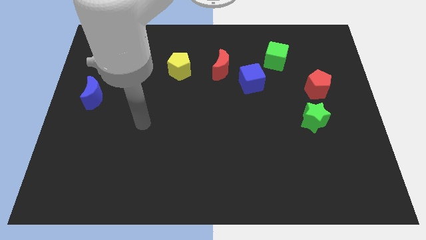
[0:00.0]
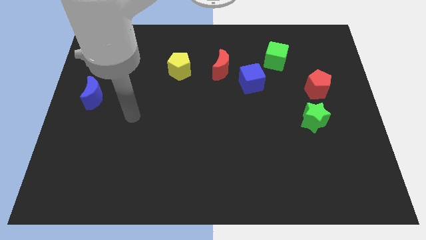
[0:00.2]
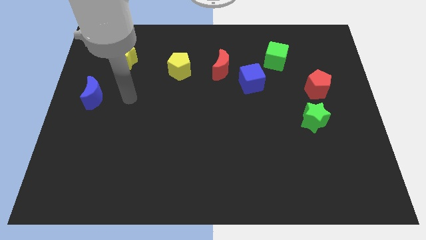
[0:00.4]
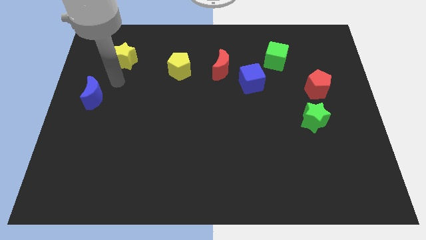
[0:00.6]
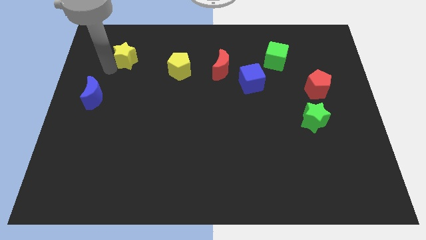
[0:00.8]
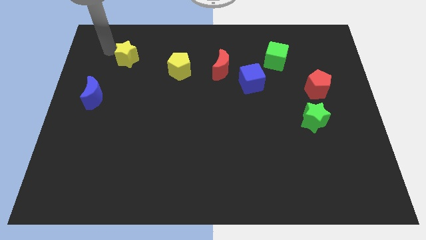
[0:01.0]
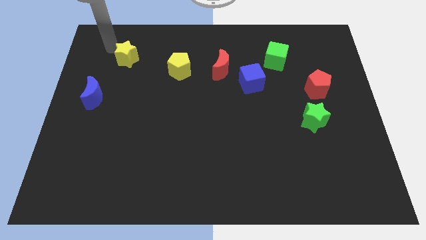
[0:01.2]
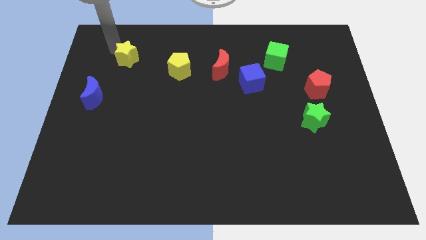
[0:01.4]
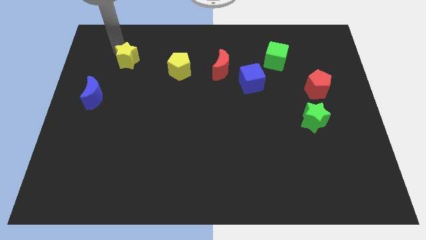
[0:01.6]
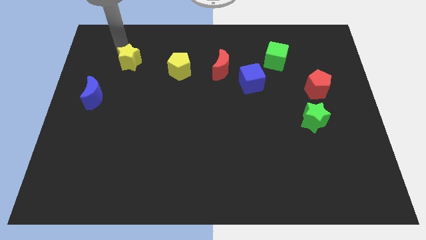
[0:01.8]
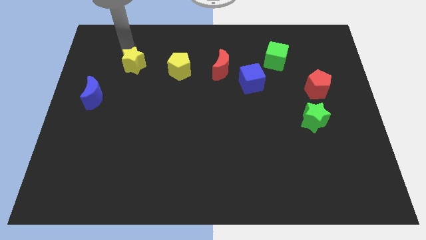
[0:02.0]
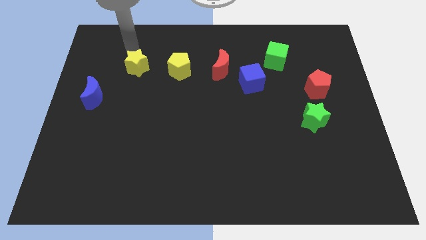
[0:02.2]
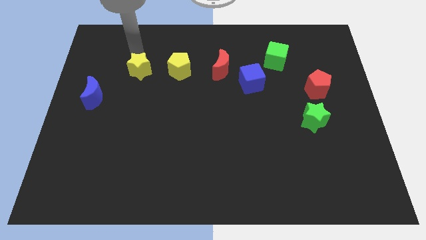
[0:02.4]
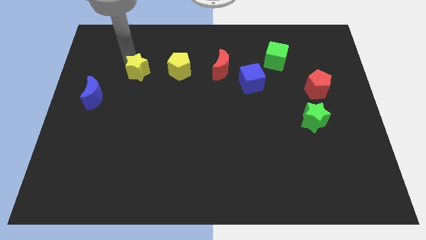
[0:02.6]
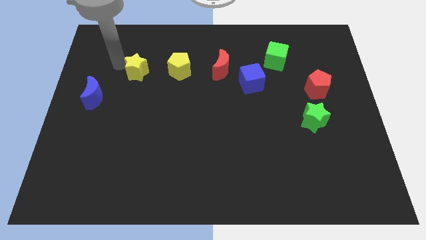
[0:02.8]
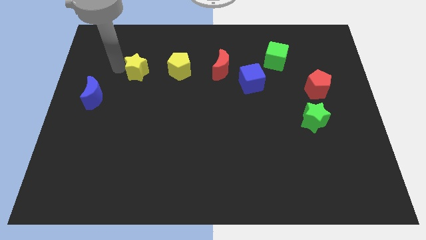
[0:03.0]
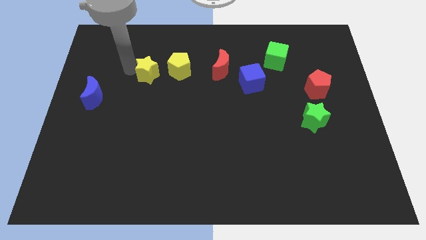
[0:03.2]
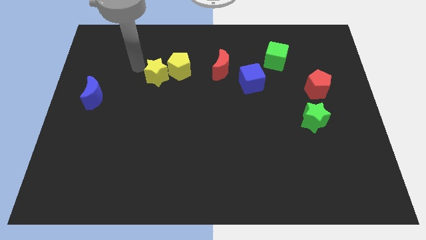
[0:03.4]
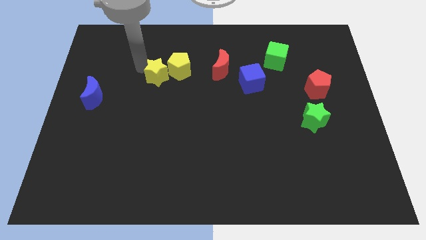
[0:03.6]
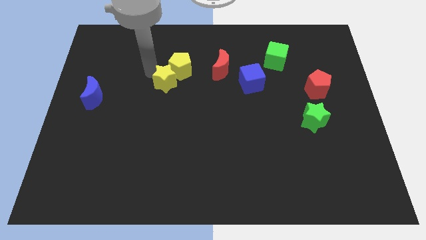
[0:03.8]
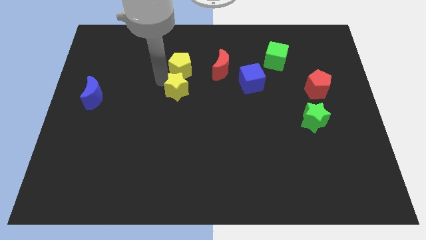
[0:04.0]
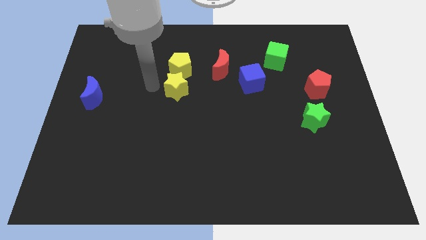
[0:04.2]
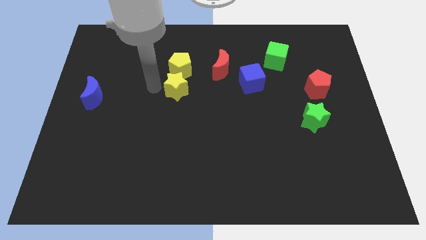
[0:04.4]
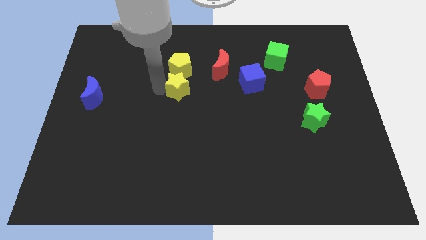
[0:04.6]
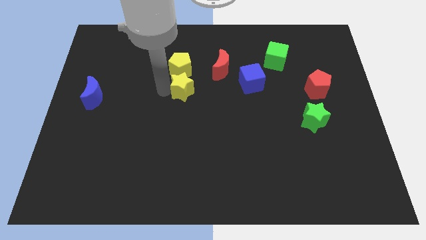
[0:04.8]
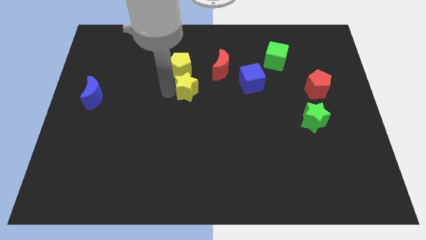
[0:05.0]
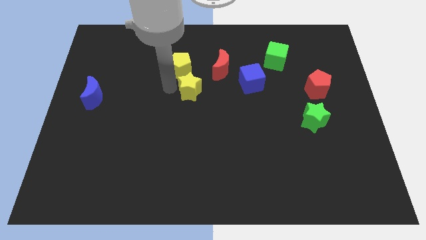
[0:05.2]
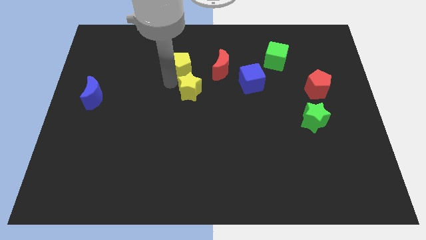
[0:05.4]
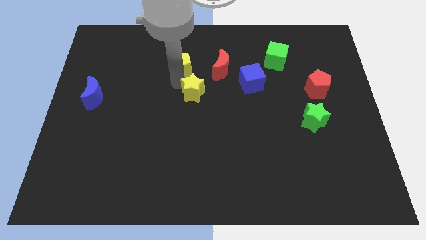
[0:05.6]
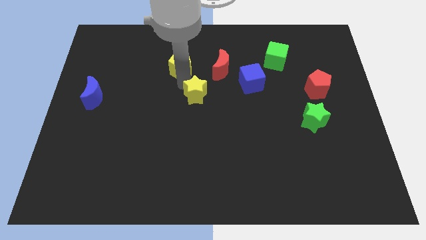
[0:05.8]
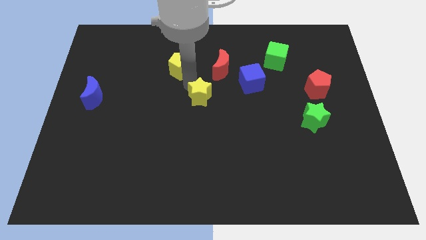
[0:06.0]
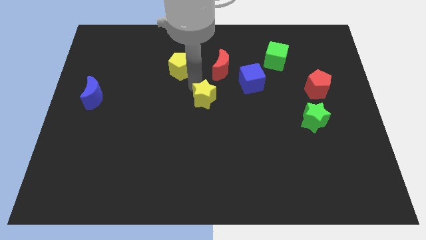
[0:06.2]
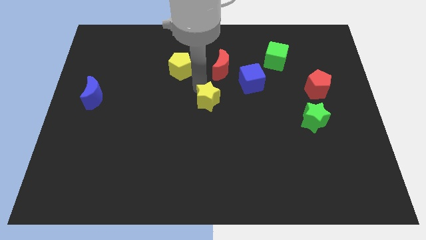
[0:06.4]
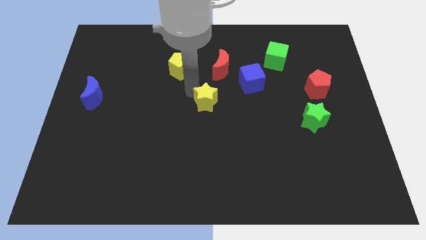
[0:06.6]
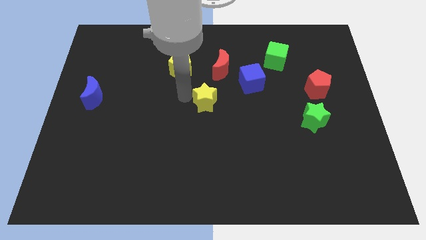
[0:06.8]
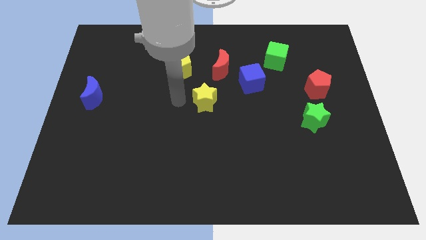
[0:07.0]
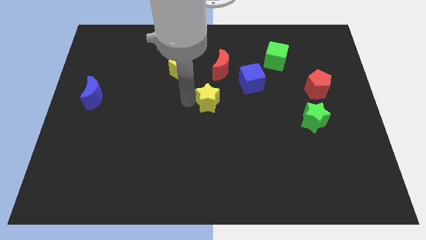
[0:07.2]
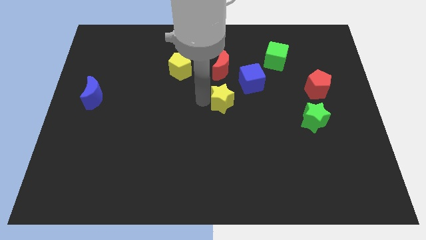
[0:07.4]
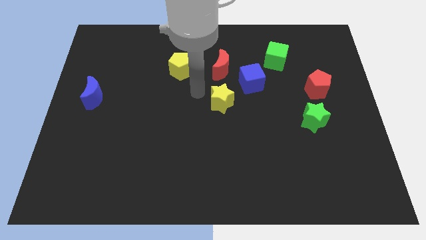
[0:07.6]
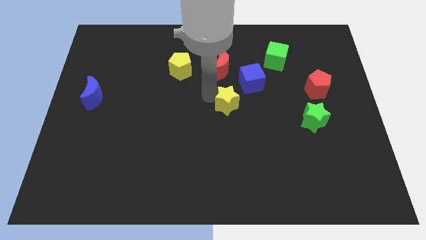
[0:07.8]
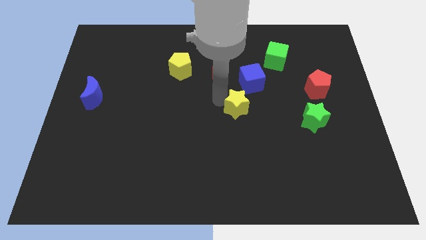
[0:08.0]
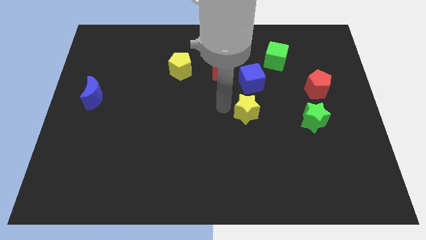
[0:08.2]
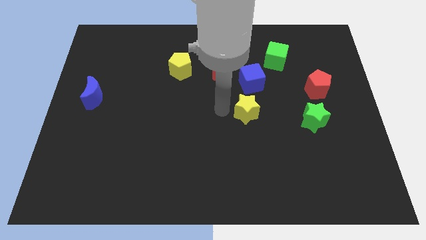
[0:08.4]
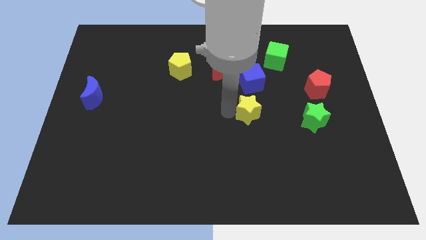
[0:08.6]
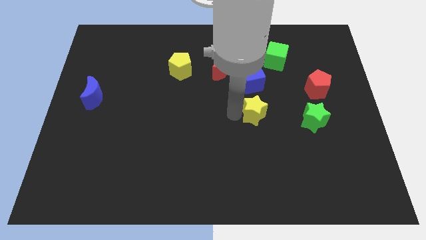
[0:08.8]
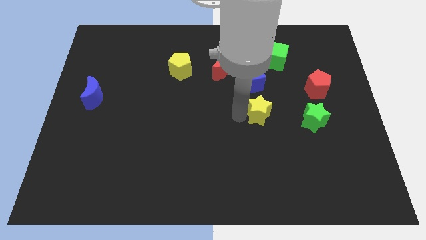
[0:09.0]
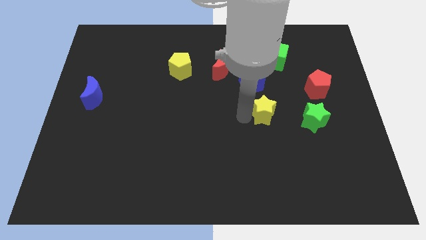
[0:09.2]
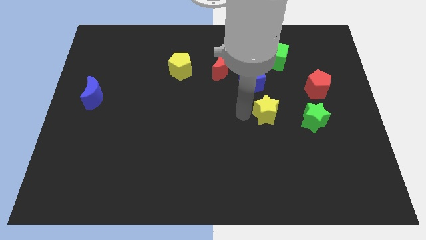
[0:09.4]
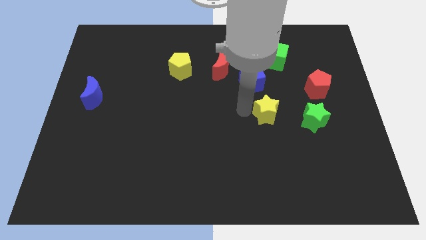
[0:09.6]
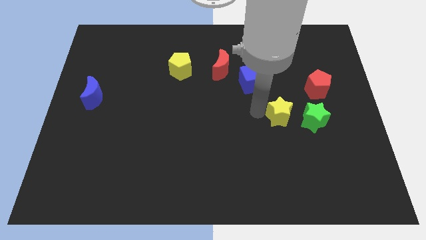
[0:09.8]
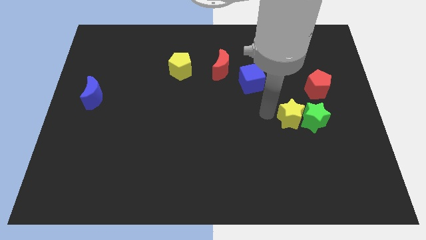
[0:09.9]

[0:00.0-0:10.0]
put the yellow star towards the green star

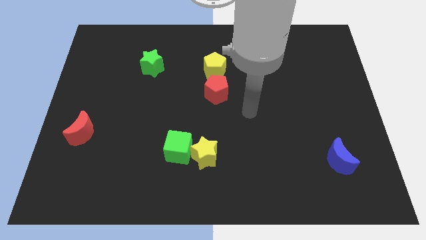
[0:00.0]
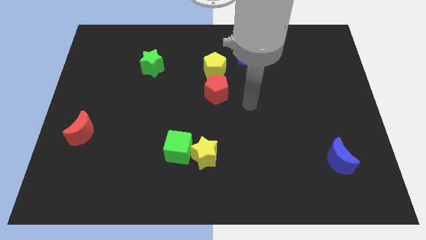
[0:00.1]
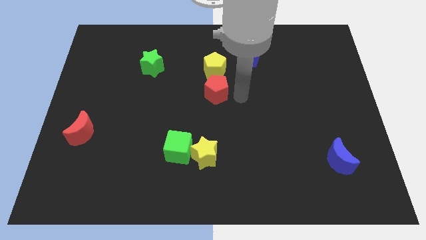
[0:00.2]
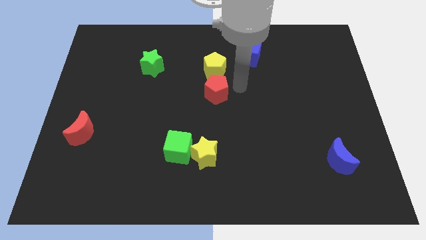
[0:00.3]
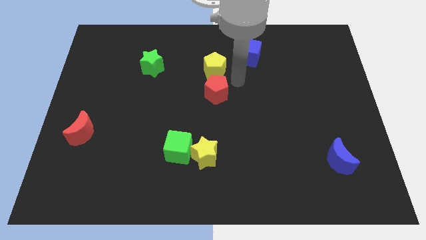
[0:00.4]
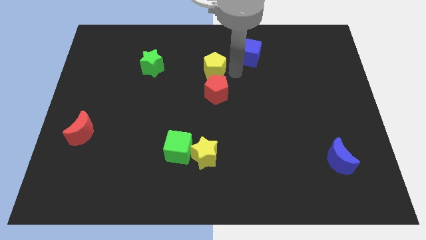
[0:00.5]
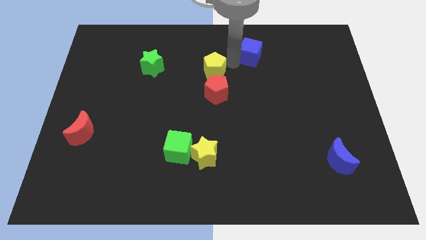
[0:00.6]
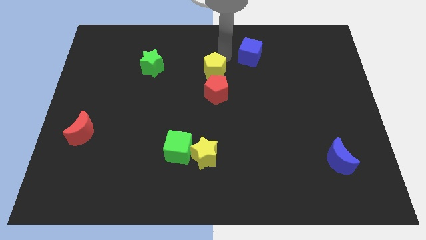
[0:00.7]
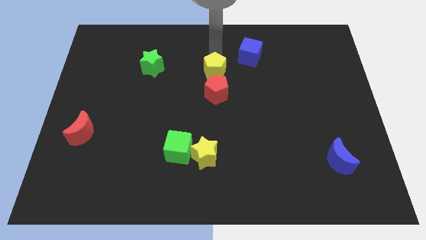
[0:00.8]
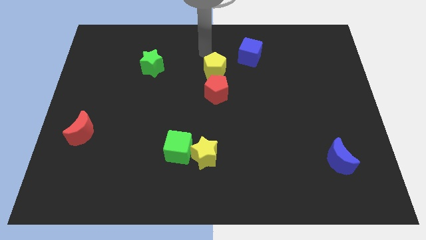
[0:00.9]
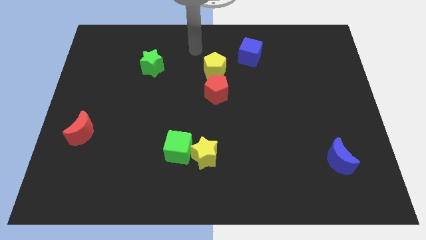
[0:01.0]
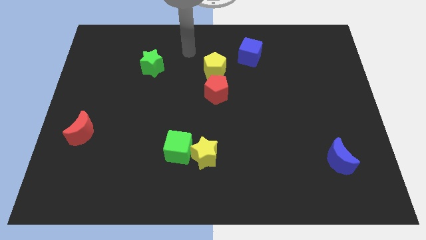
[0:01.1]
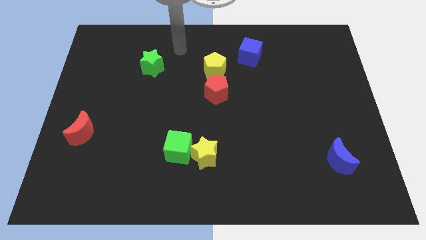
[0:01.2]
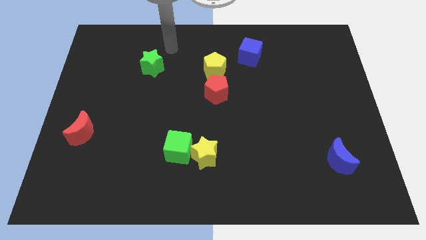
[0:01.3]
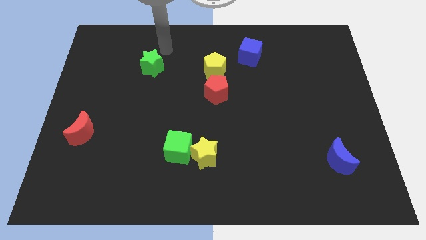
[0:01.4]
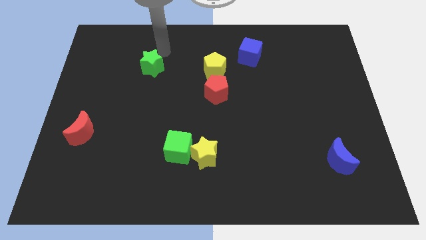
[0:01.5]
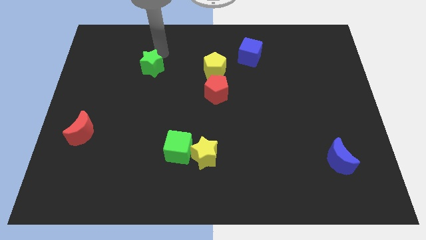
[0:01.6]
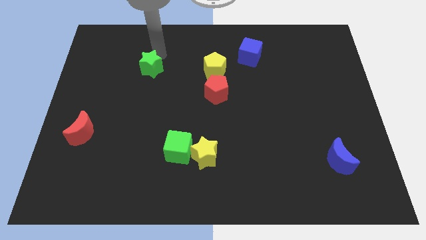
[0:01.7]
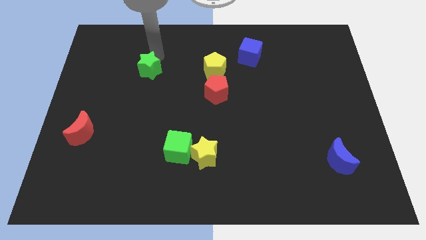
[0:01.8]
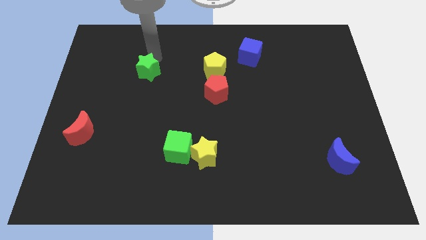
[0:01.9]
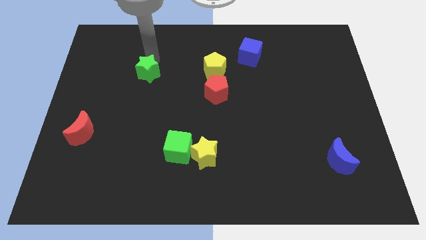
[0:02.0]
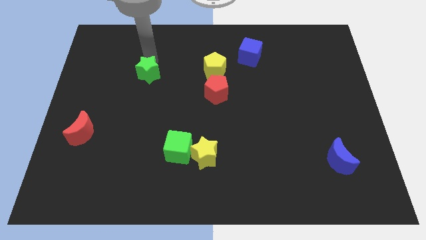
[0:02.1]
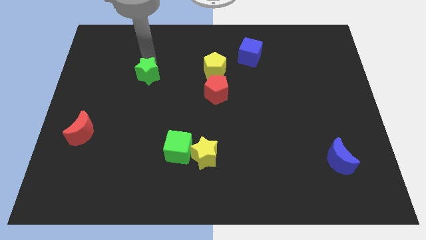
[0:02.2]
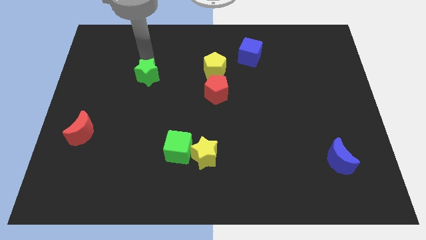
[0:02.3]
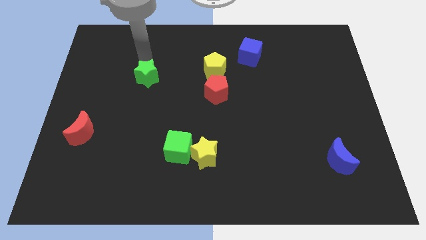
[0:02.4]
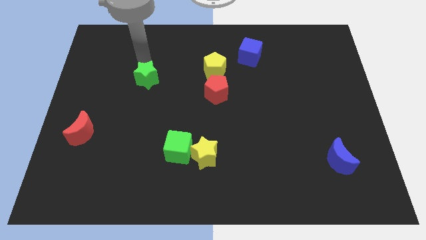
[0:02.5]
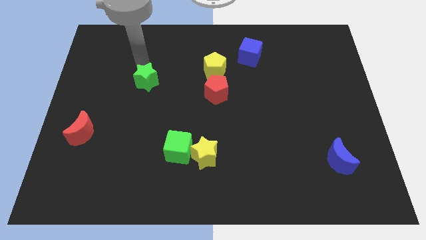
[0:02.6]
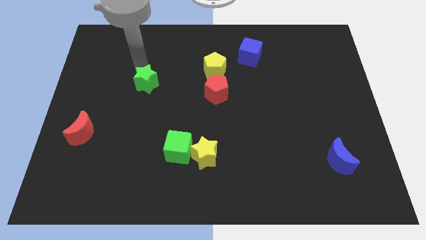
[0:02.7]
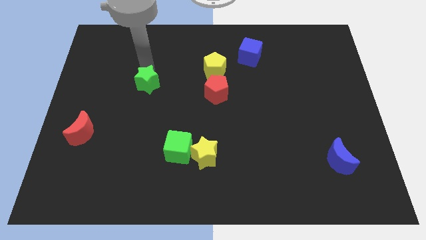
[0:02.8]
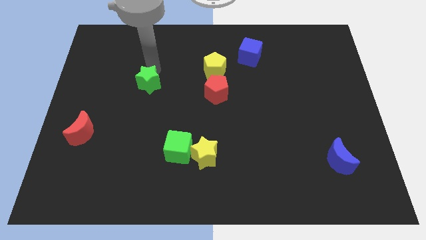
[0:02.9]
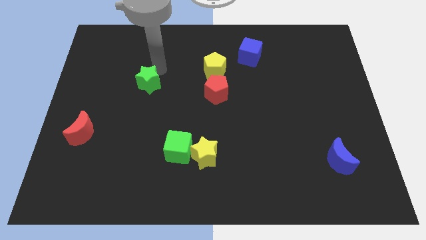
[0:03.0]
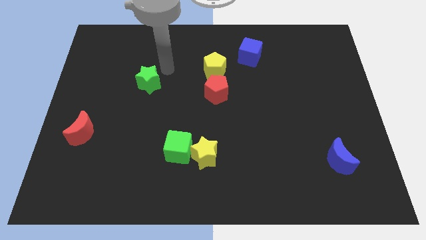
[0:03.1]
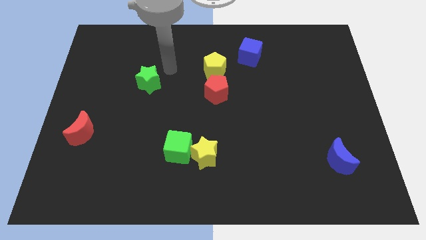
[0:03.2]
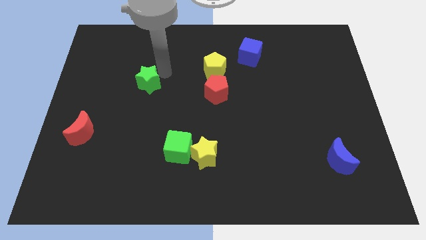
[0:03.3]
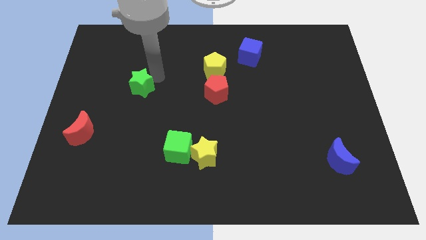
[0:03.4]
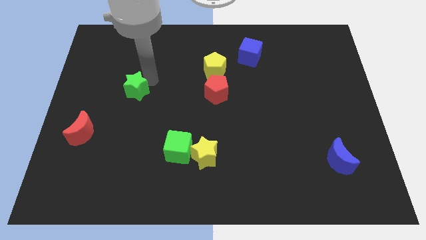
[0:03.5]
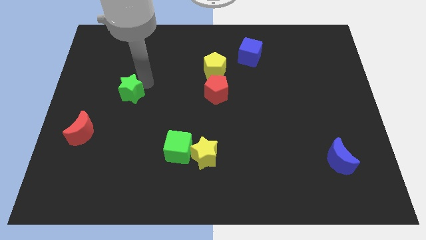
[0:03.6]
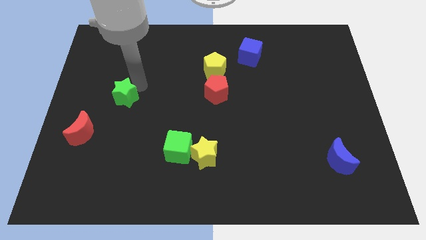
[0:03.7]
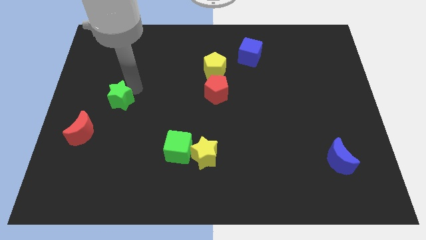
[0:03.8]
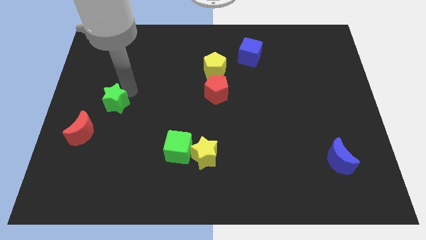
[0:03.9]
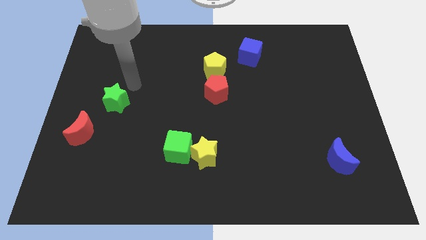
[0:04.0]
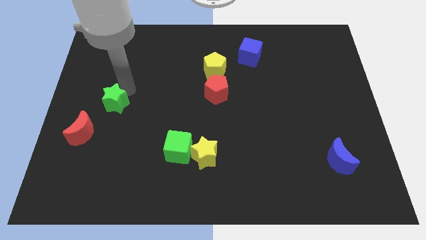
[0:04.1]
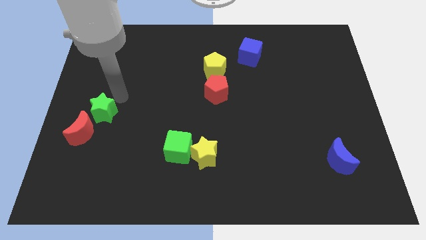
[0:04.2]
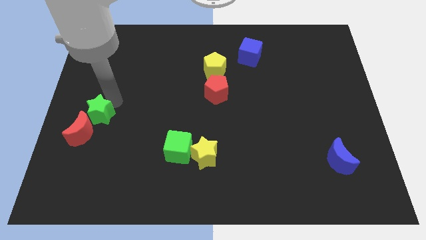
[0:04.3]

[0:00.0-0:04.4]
move the green star next to the red moon
